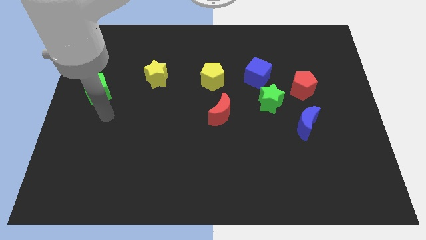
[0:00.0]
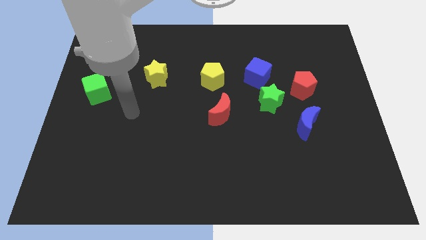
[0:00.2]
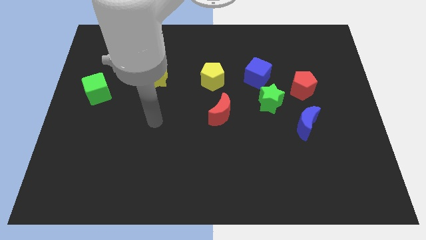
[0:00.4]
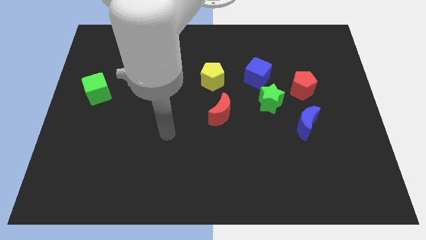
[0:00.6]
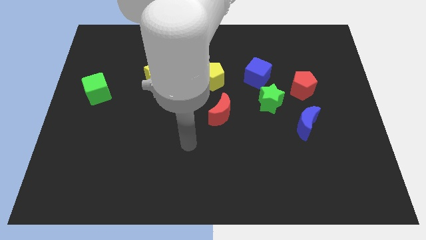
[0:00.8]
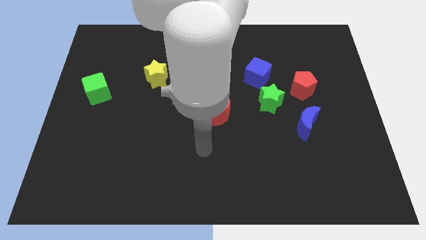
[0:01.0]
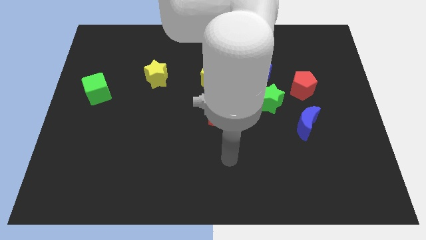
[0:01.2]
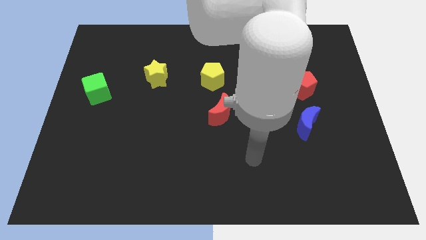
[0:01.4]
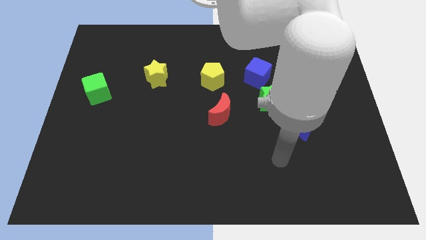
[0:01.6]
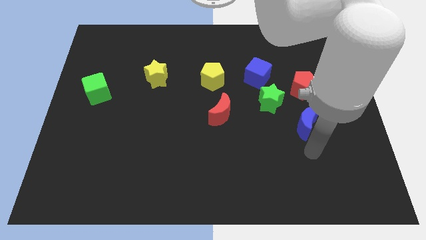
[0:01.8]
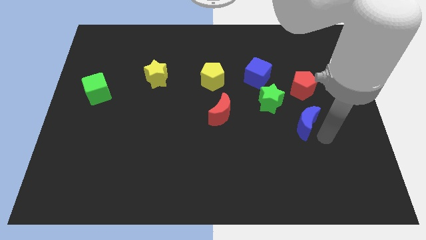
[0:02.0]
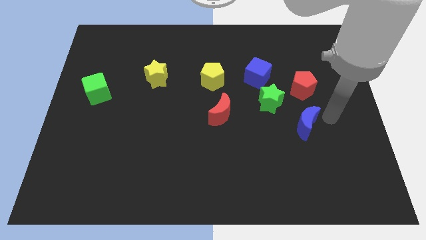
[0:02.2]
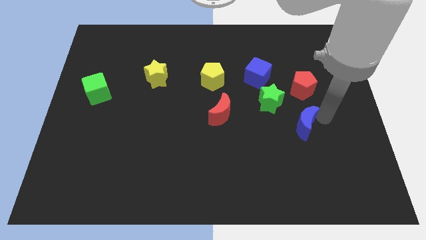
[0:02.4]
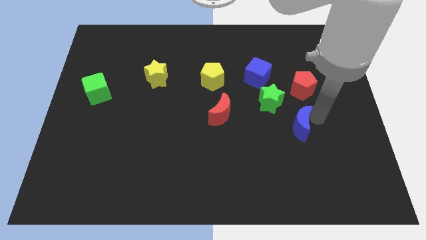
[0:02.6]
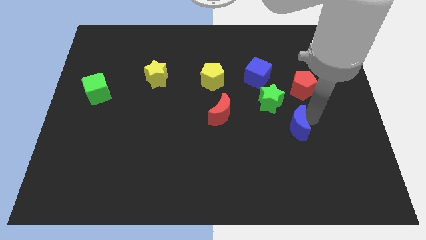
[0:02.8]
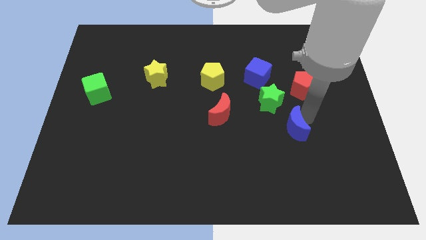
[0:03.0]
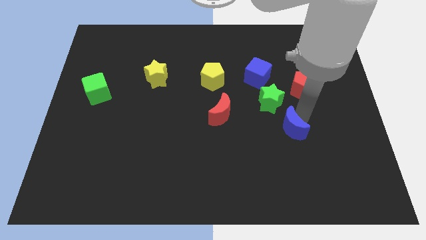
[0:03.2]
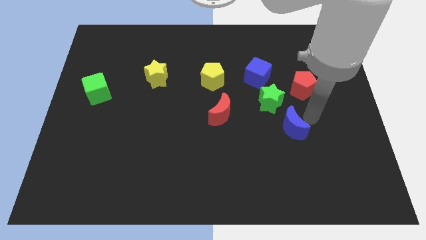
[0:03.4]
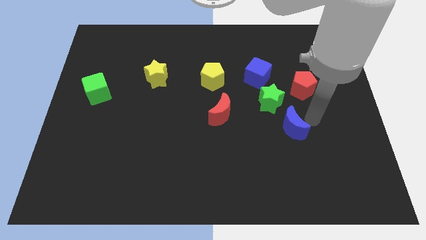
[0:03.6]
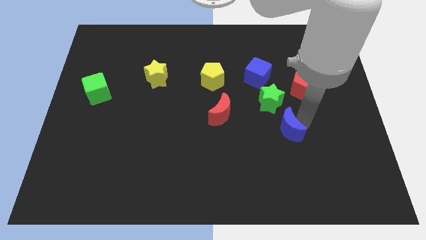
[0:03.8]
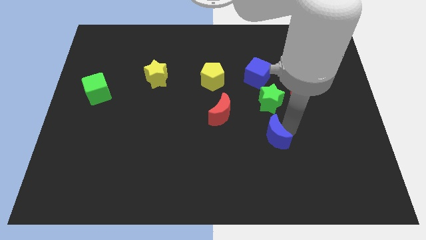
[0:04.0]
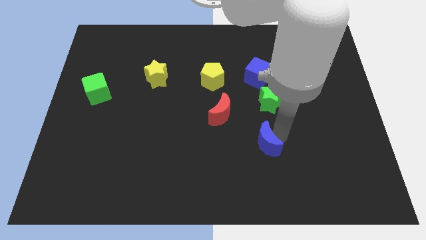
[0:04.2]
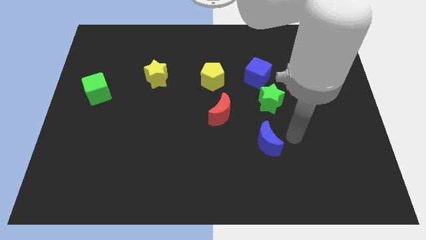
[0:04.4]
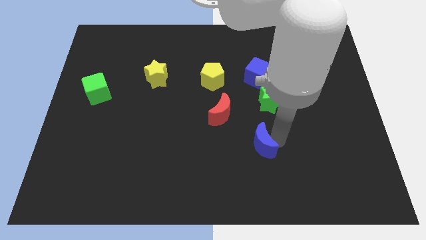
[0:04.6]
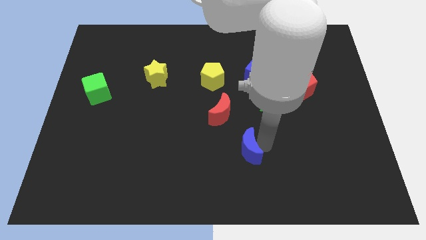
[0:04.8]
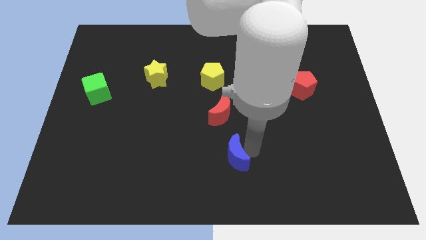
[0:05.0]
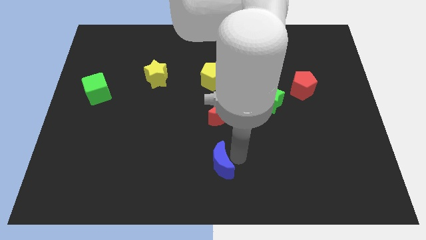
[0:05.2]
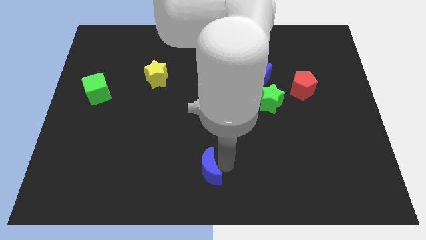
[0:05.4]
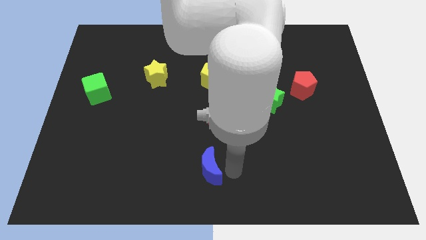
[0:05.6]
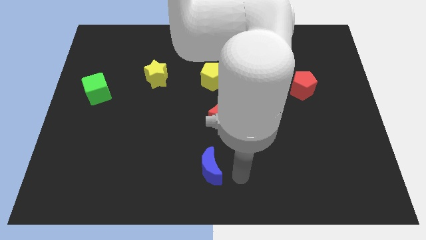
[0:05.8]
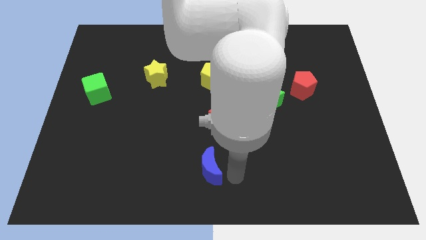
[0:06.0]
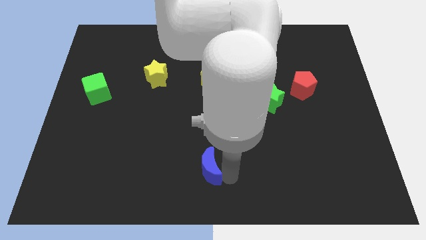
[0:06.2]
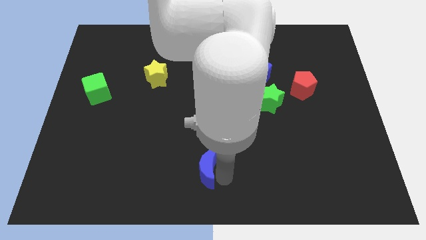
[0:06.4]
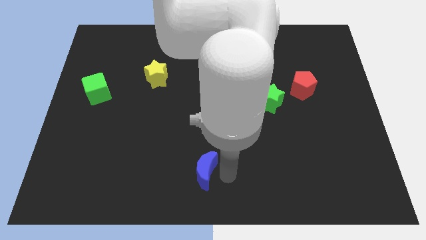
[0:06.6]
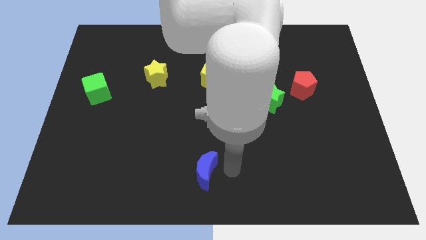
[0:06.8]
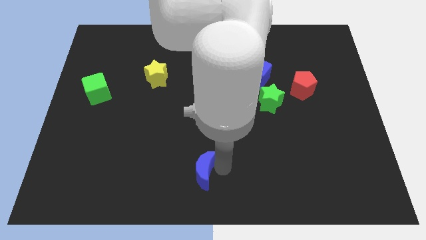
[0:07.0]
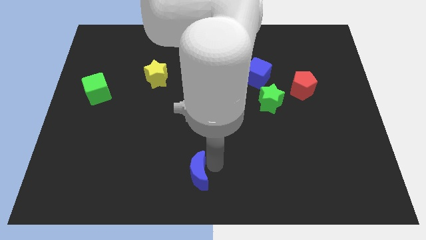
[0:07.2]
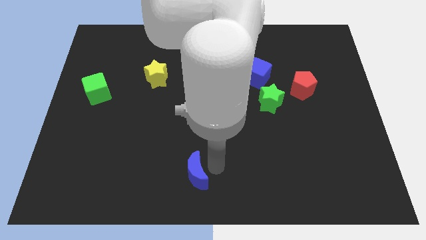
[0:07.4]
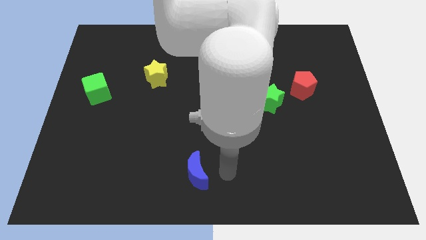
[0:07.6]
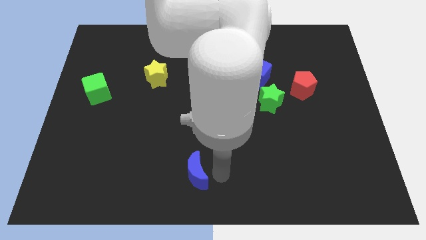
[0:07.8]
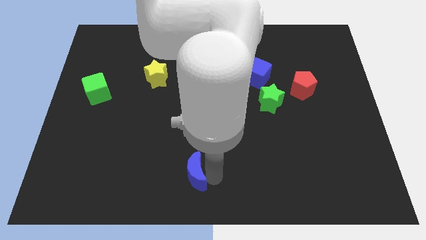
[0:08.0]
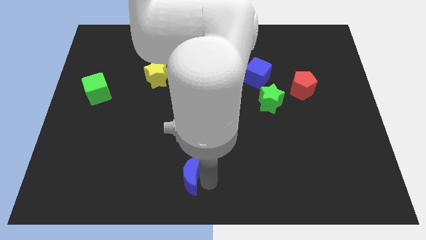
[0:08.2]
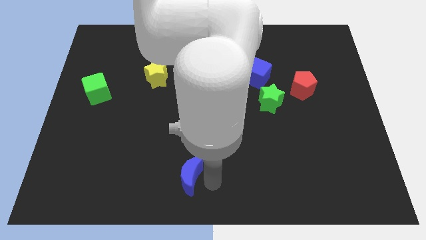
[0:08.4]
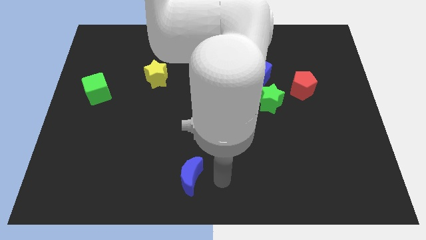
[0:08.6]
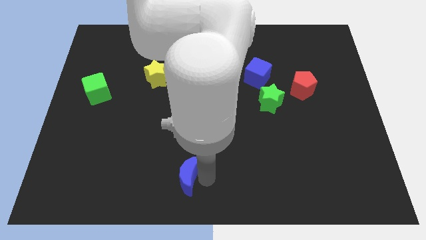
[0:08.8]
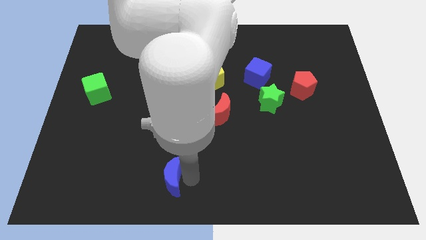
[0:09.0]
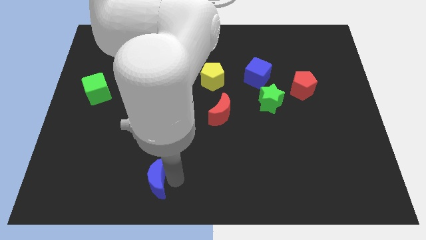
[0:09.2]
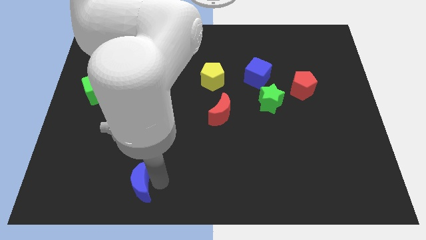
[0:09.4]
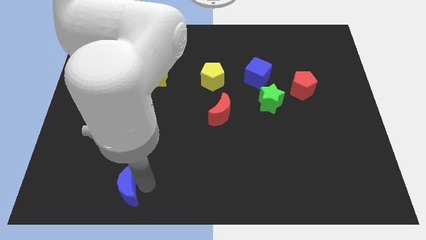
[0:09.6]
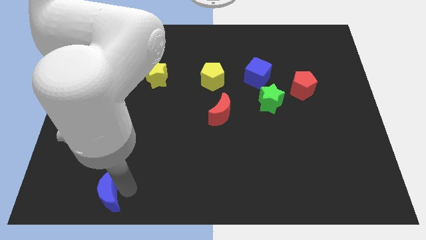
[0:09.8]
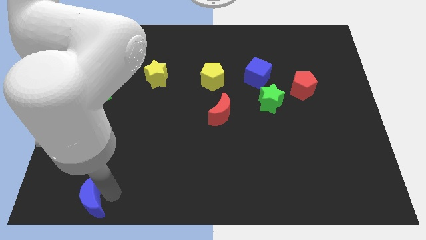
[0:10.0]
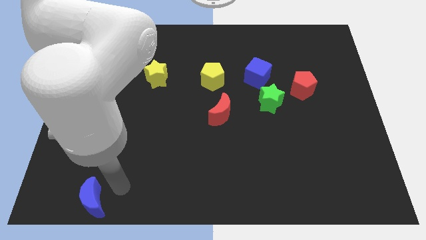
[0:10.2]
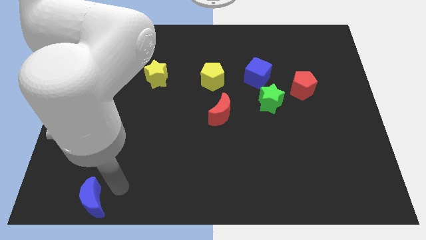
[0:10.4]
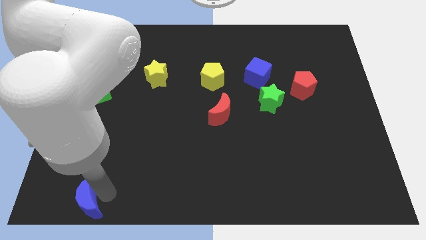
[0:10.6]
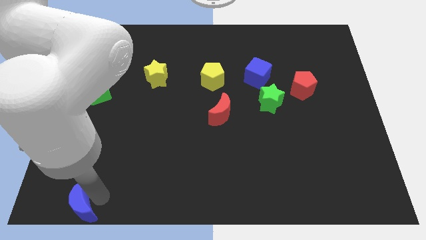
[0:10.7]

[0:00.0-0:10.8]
push the blue moon to the bottom left of the board

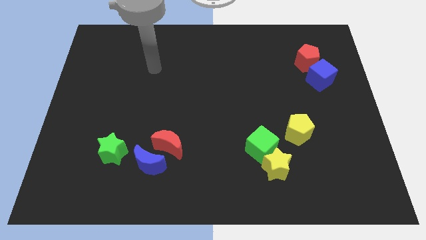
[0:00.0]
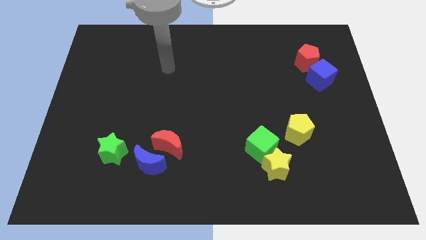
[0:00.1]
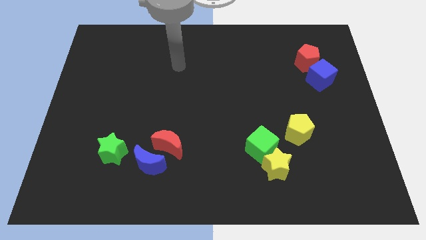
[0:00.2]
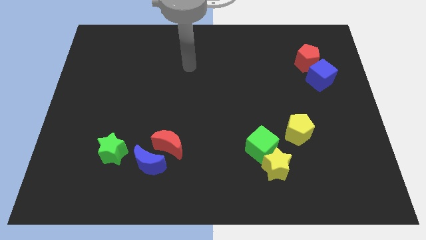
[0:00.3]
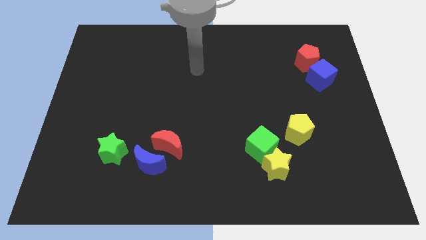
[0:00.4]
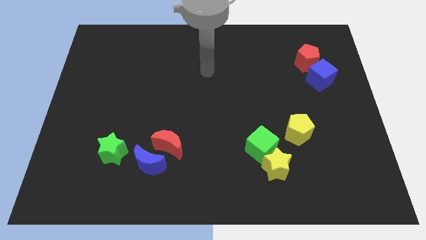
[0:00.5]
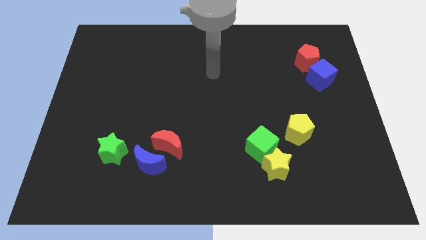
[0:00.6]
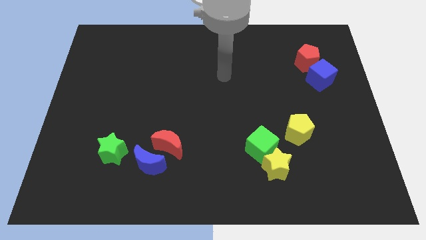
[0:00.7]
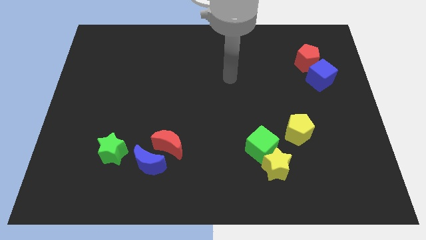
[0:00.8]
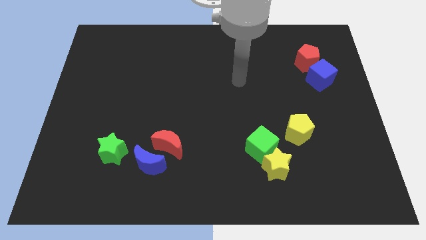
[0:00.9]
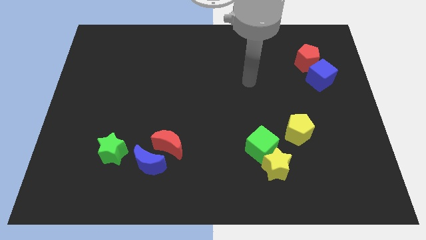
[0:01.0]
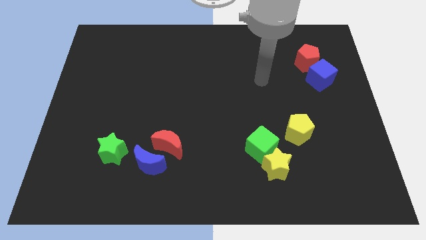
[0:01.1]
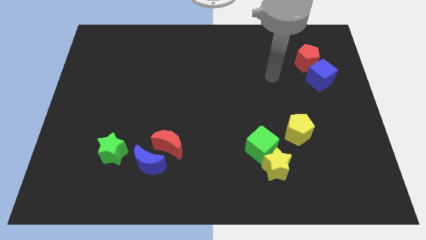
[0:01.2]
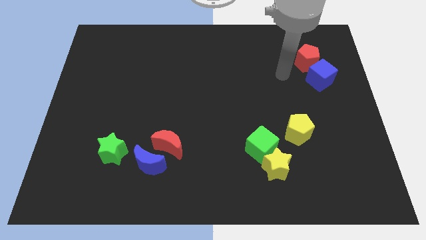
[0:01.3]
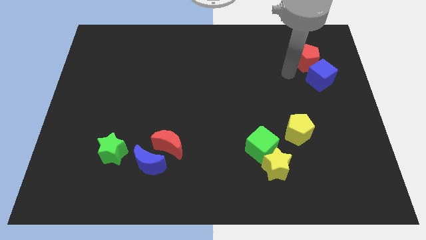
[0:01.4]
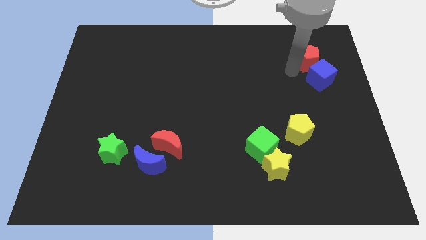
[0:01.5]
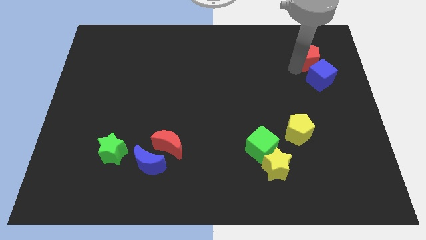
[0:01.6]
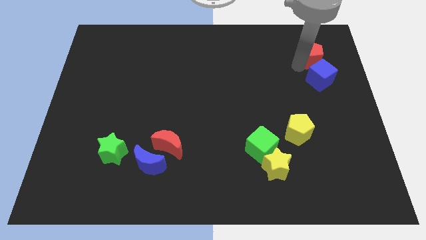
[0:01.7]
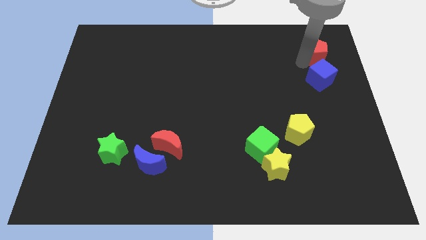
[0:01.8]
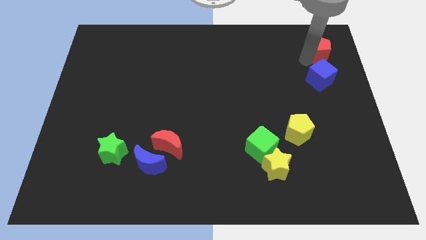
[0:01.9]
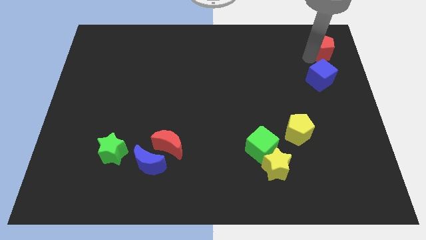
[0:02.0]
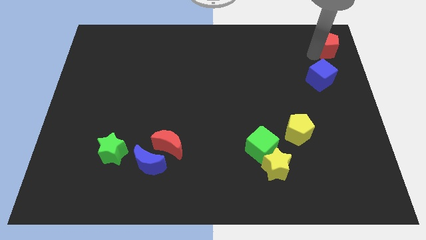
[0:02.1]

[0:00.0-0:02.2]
move the red pentagon to the top right corner
